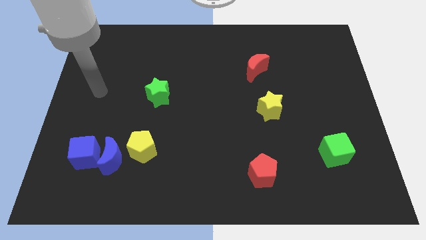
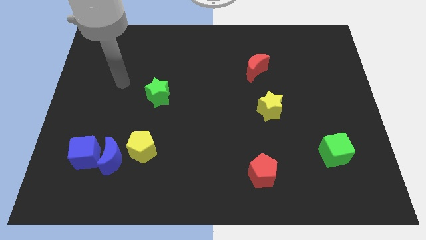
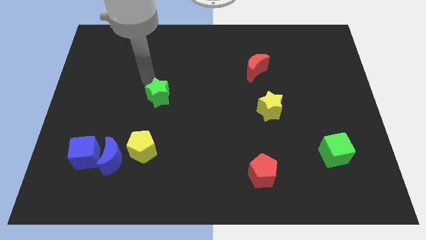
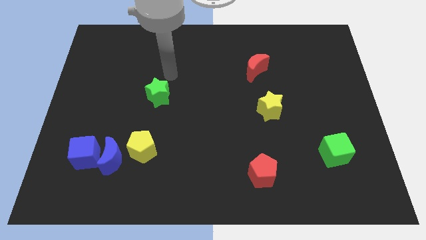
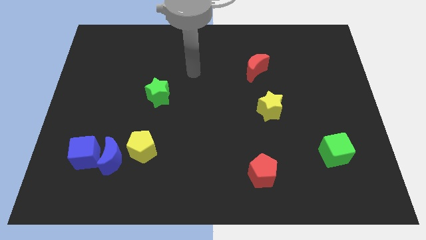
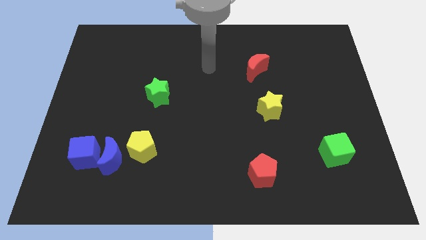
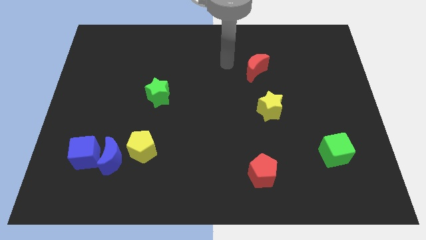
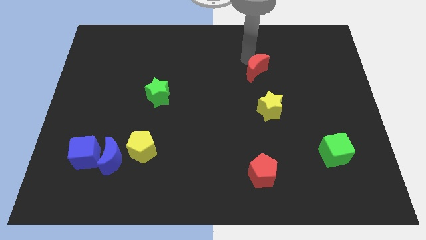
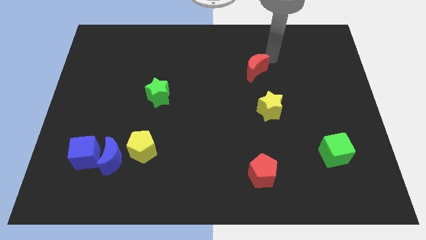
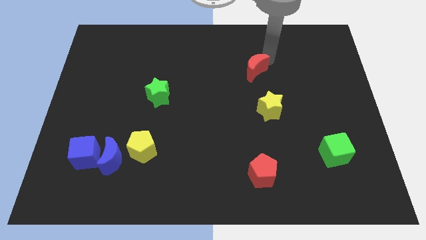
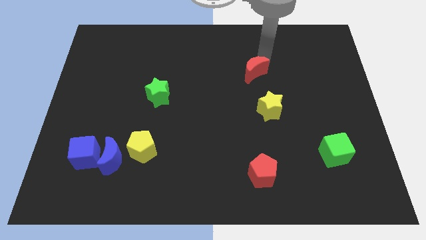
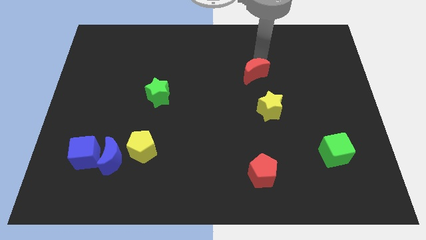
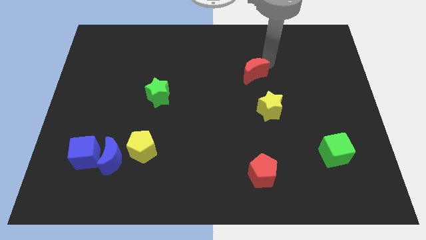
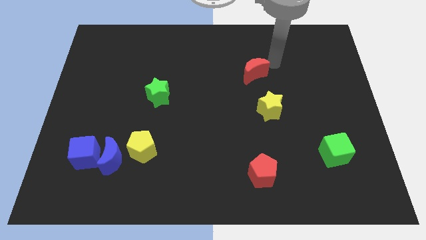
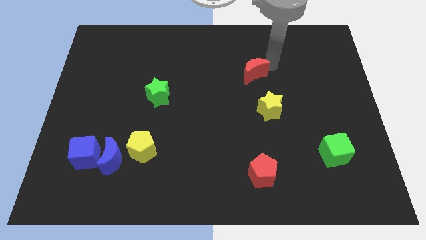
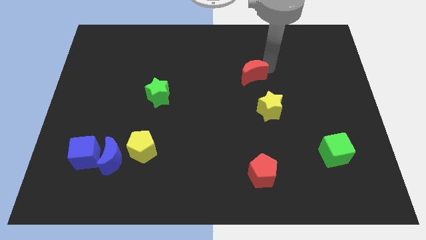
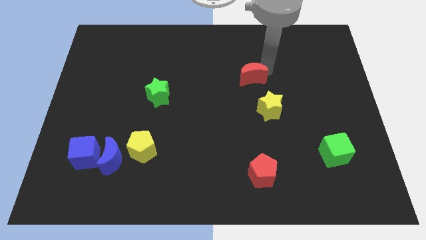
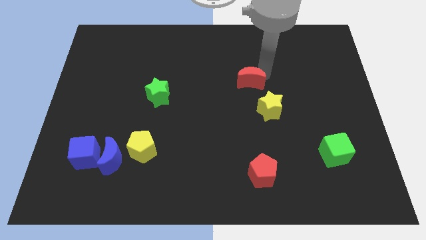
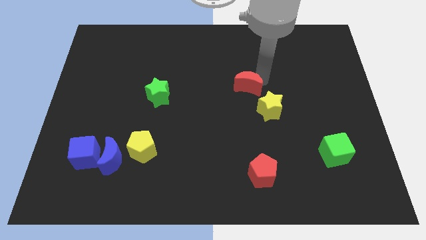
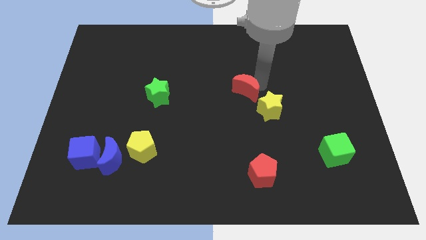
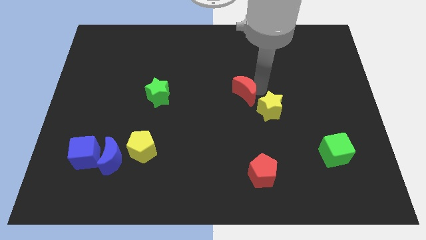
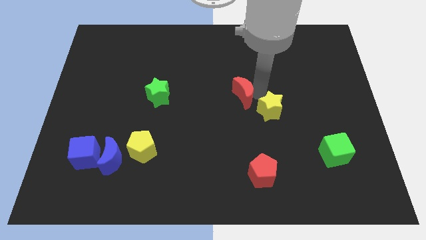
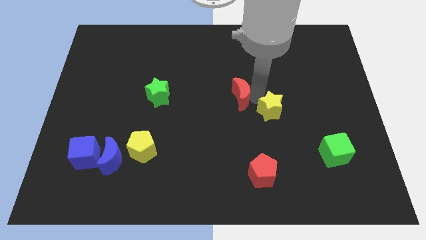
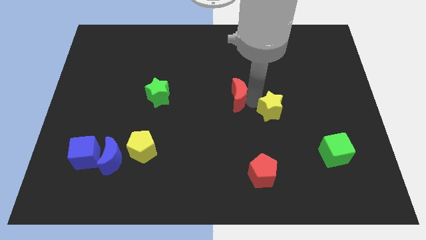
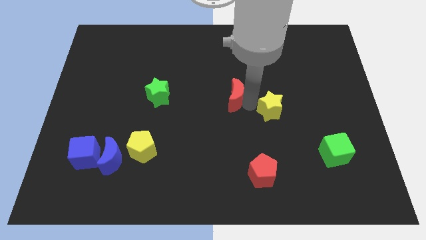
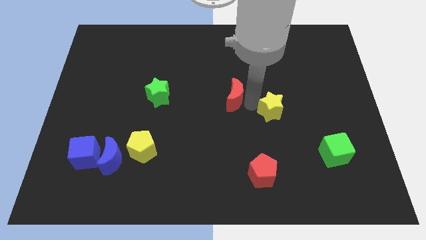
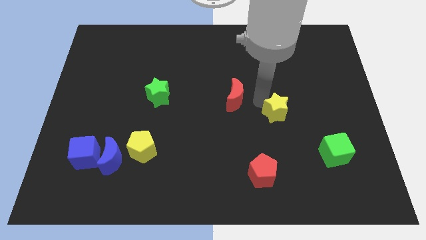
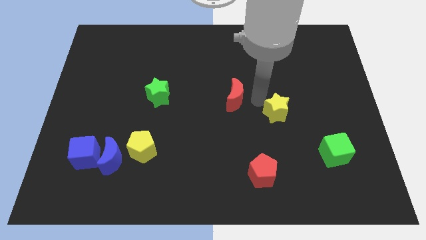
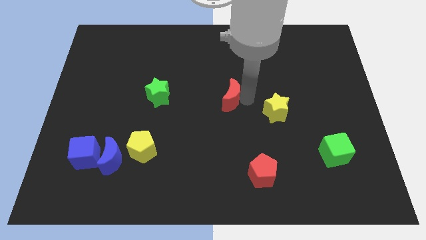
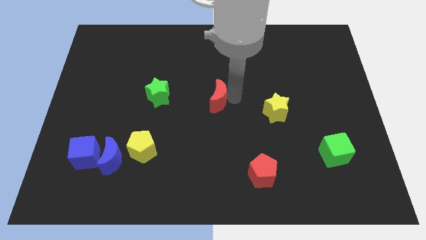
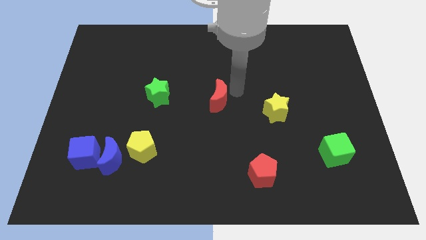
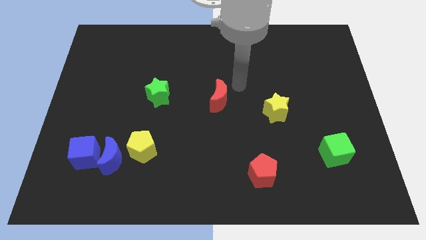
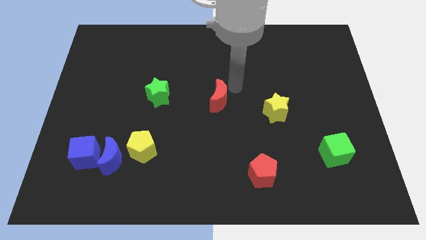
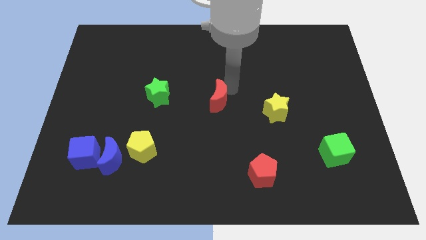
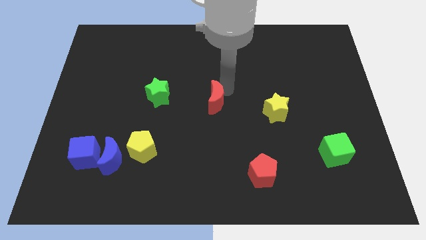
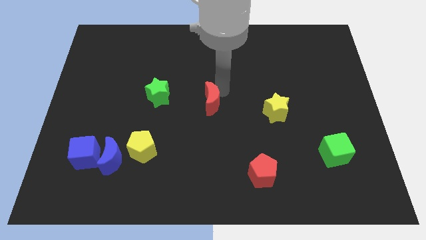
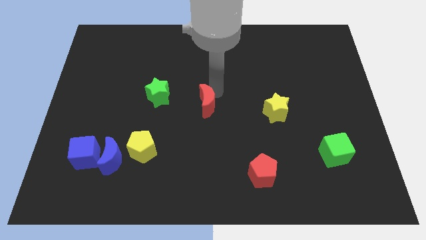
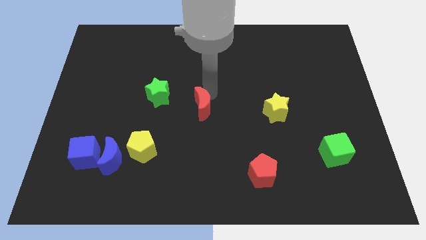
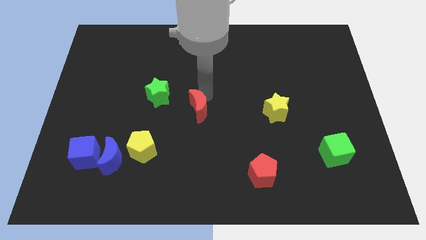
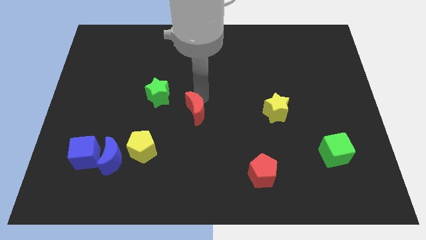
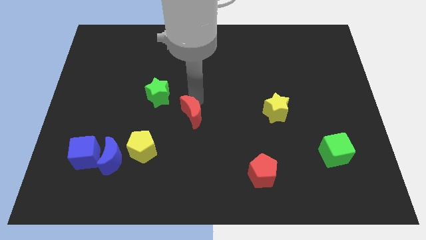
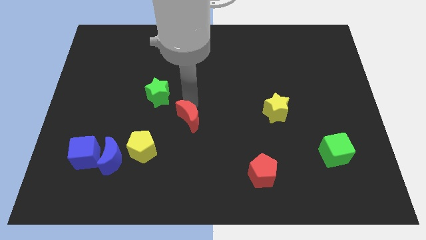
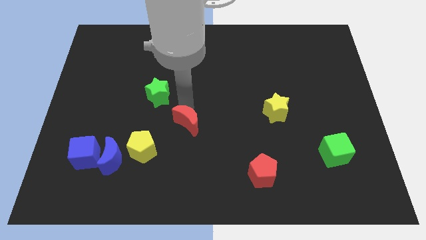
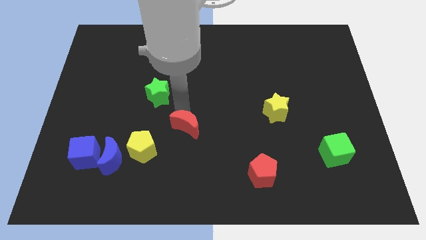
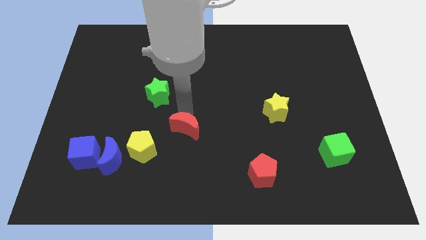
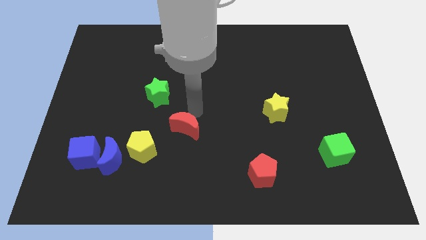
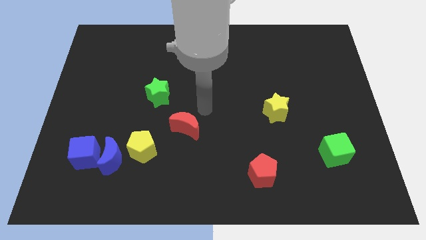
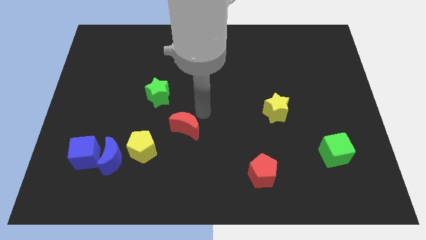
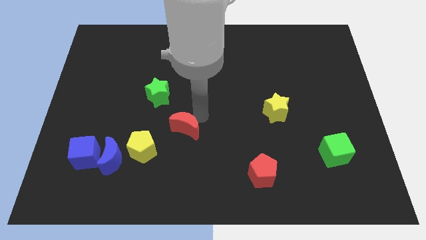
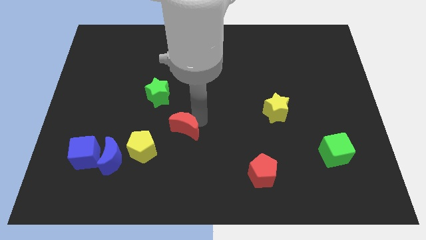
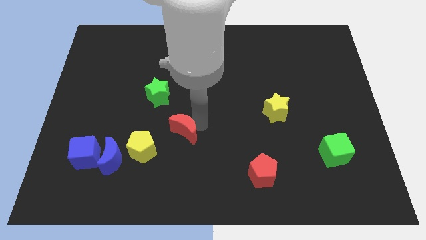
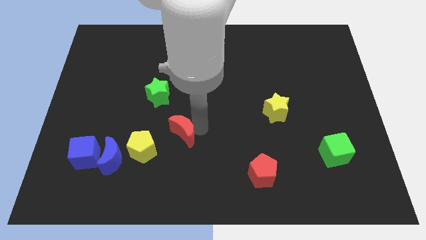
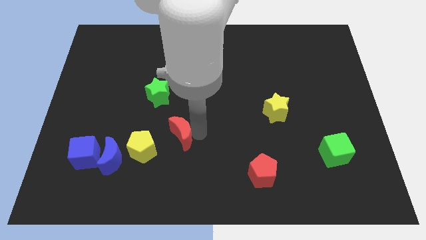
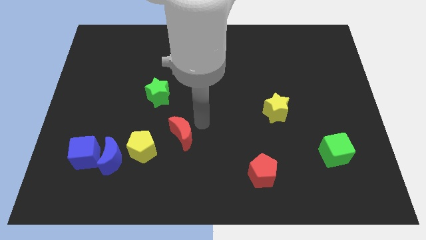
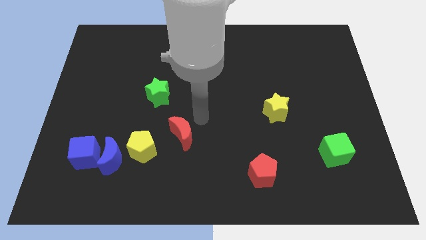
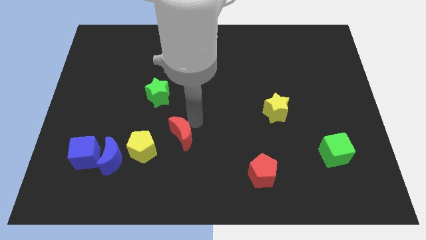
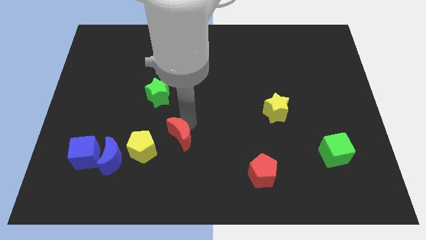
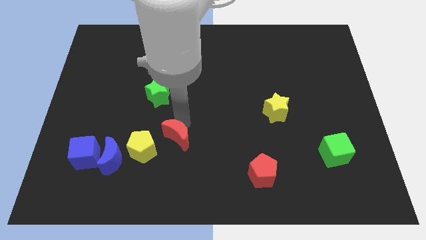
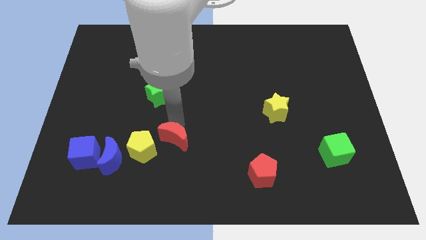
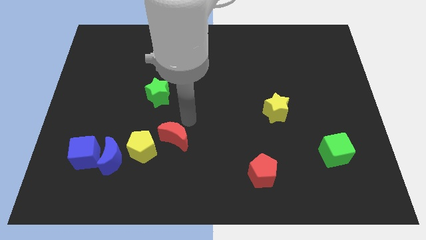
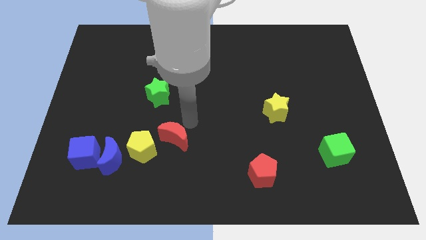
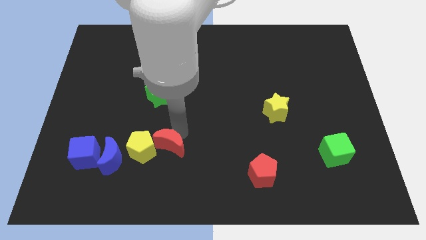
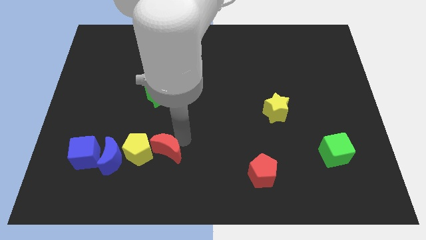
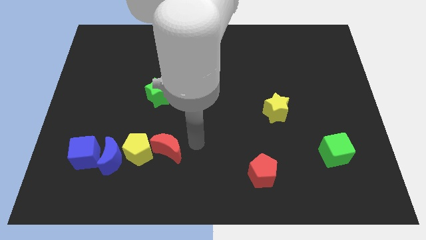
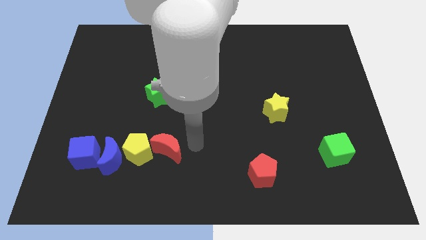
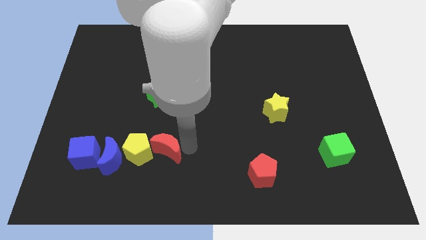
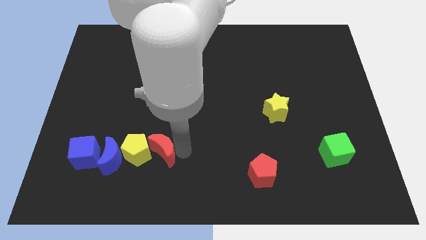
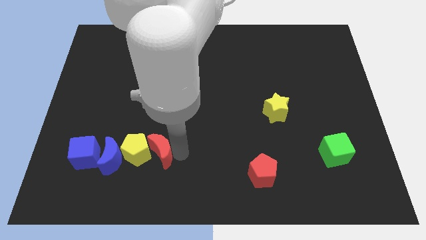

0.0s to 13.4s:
put the red moon right of the blue cube

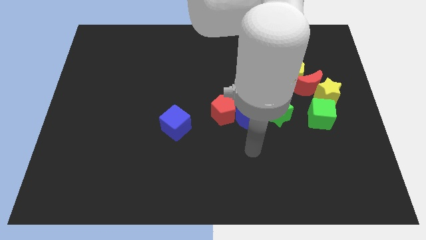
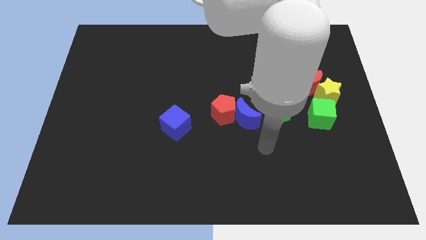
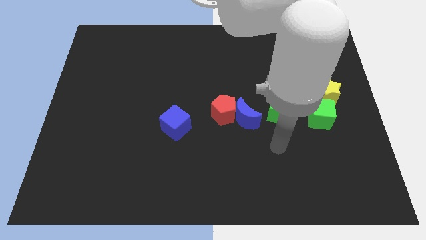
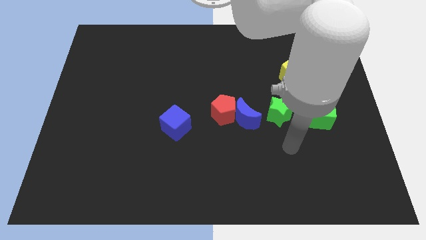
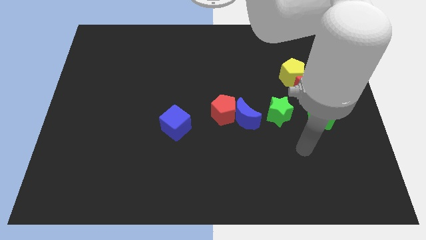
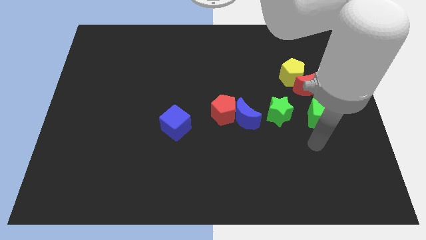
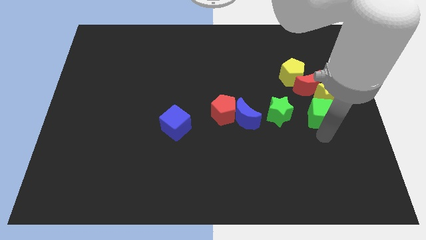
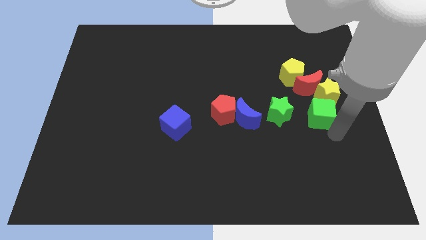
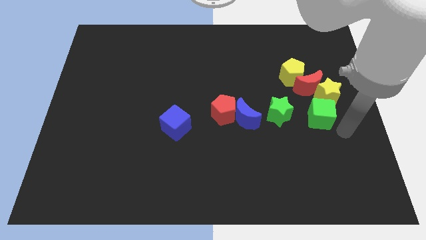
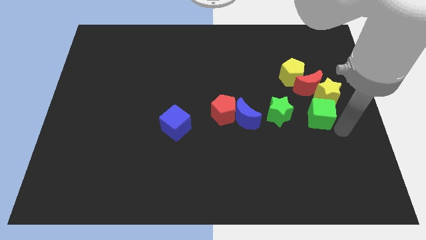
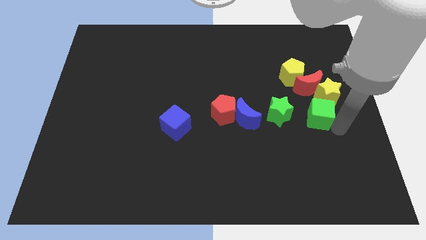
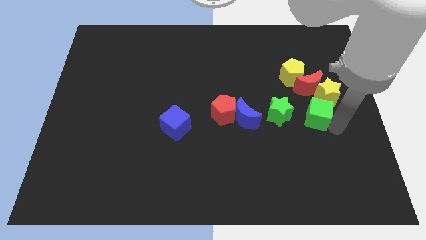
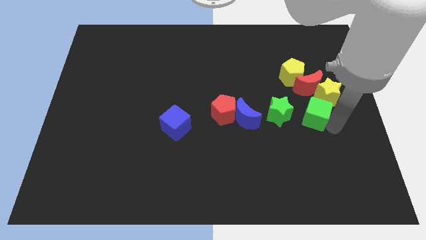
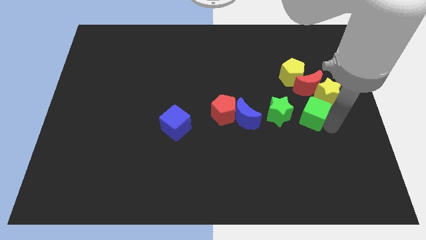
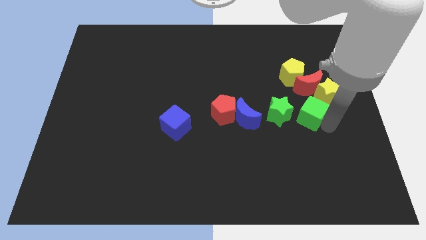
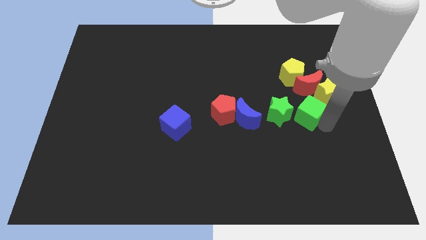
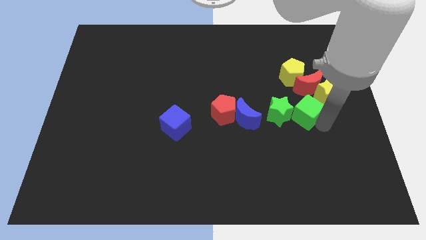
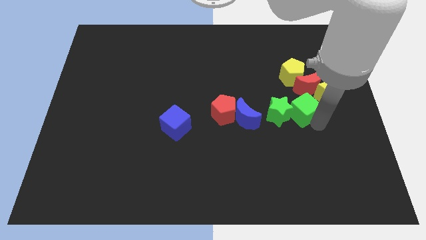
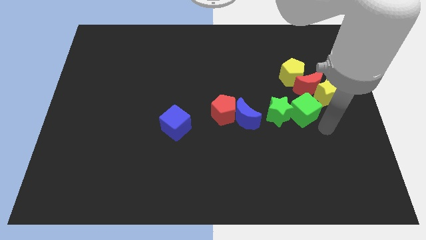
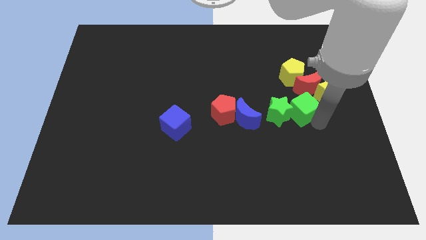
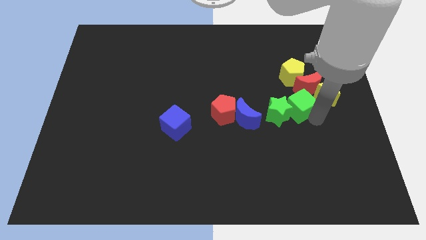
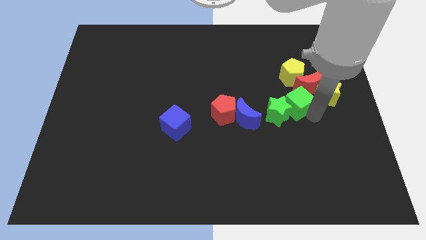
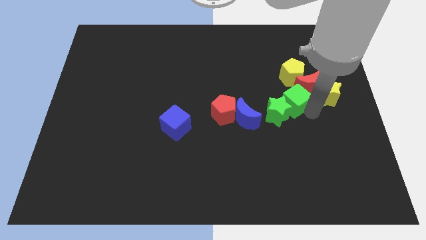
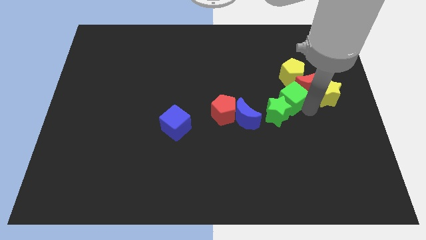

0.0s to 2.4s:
push the green cube left of the red moon
